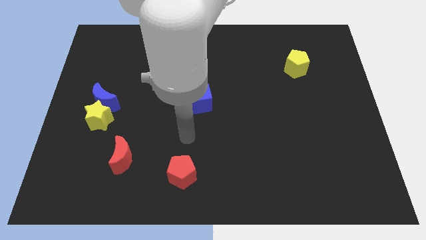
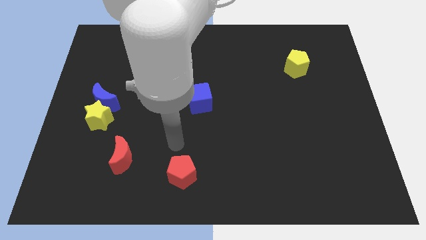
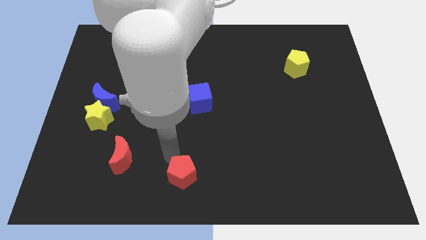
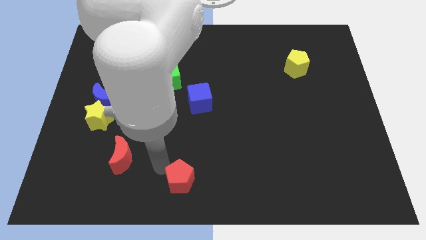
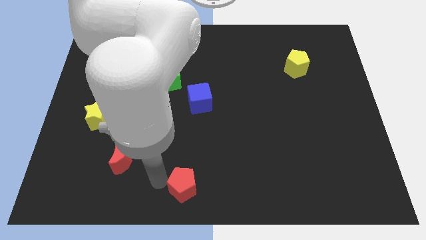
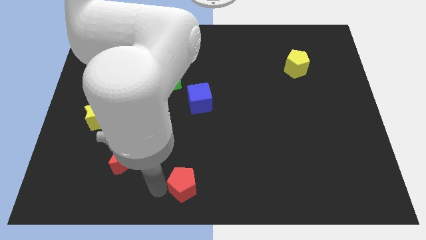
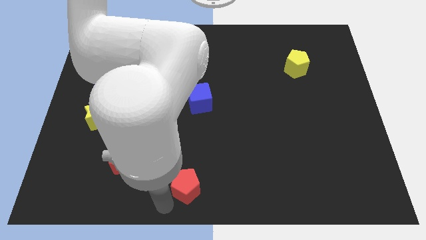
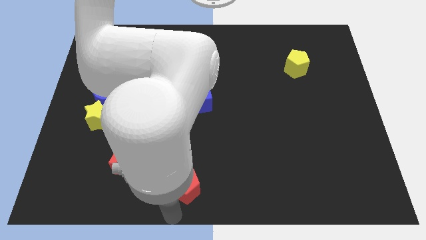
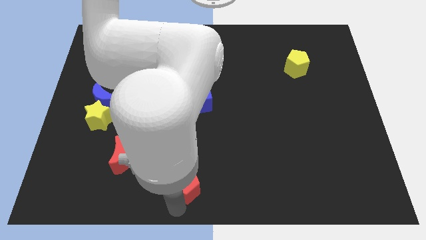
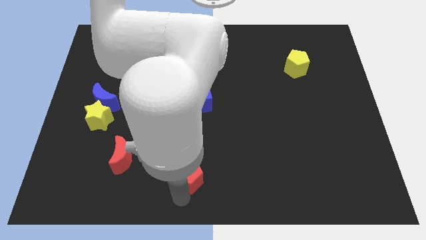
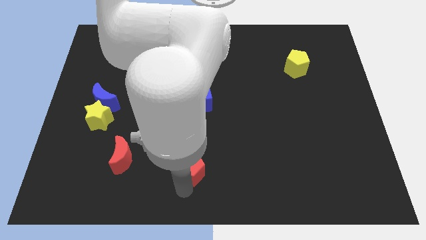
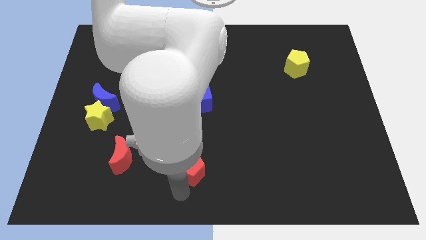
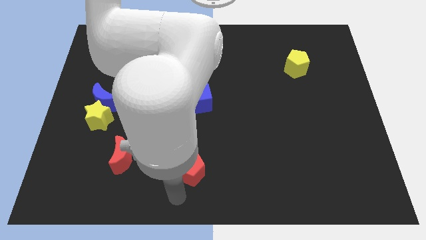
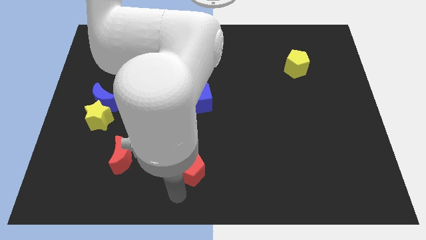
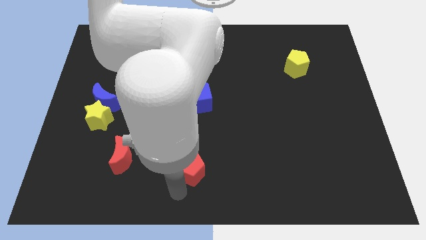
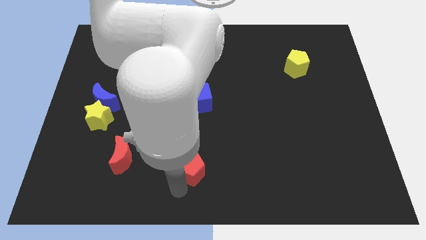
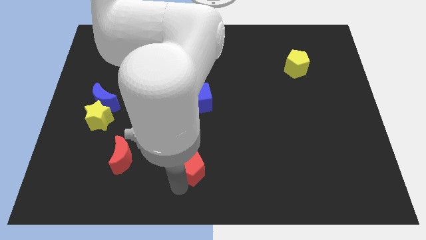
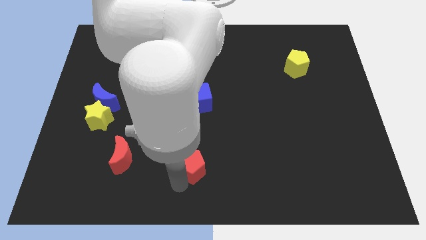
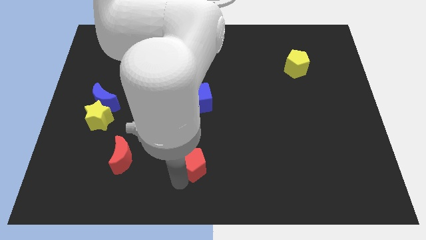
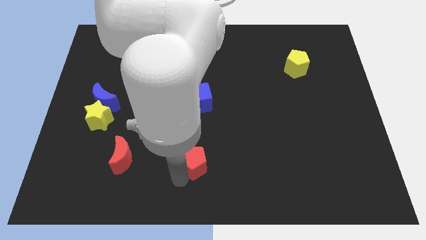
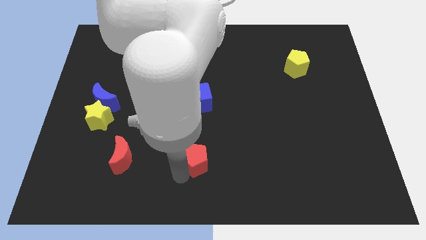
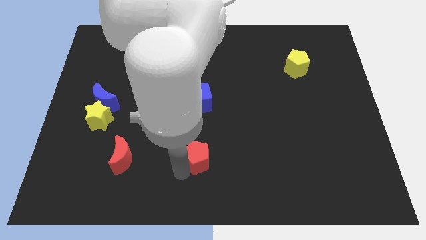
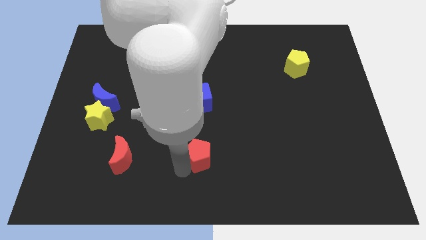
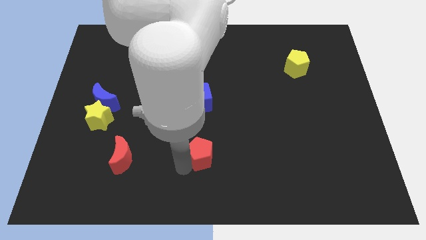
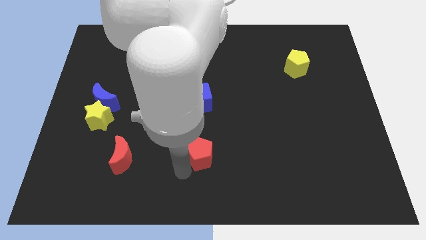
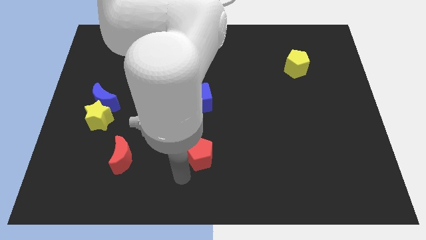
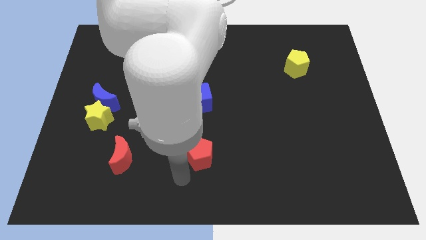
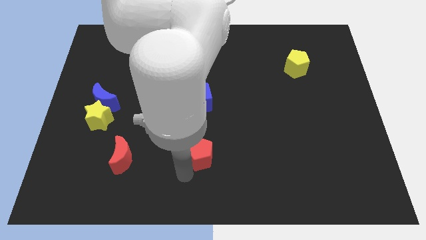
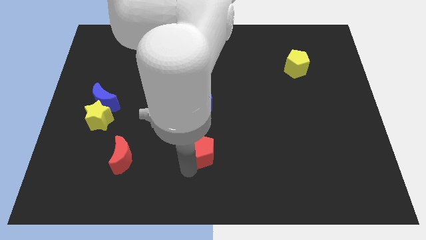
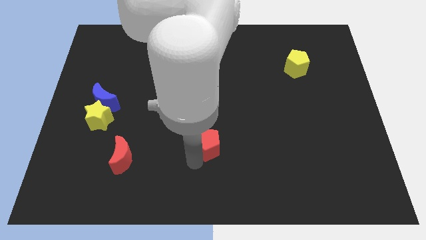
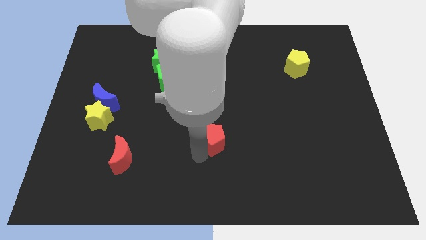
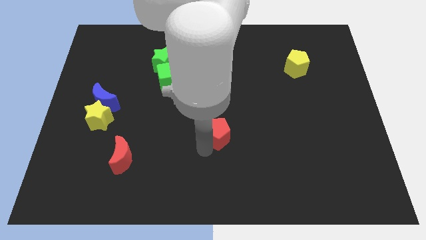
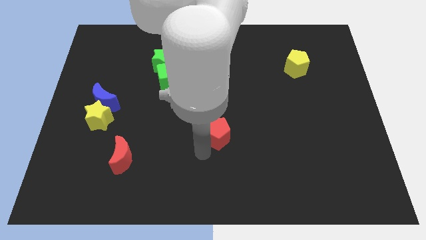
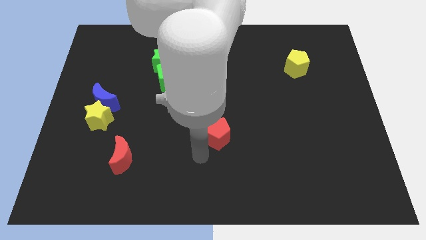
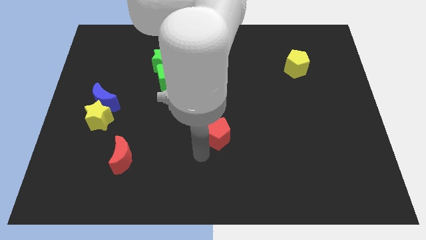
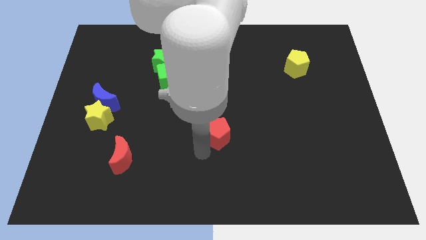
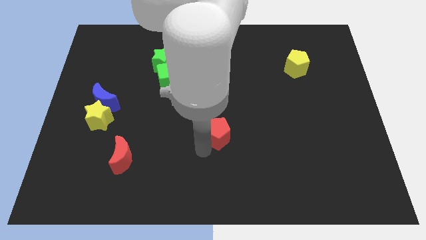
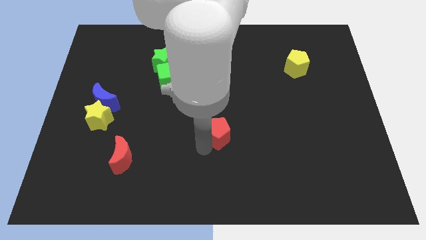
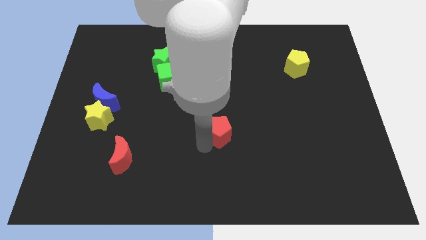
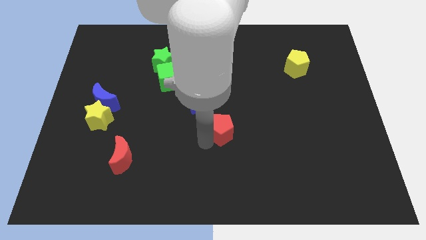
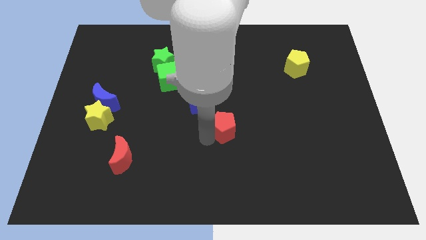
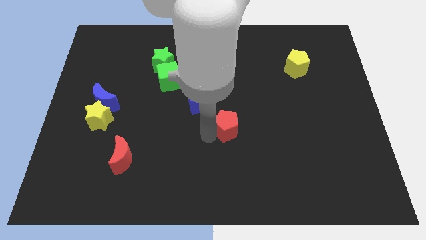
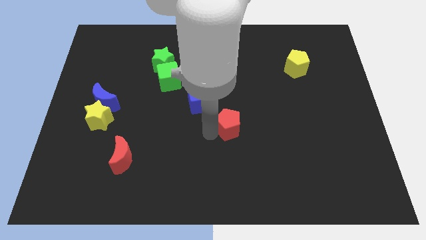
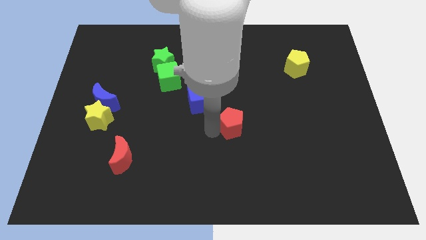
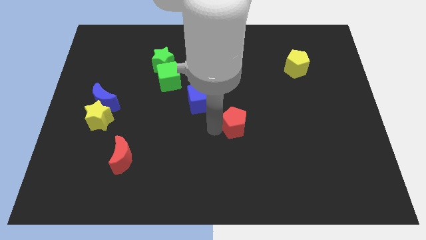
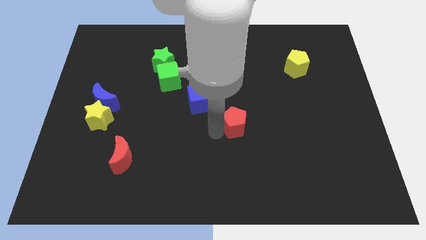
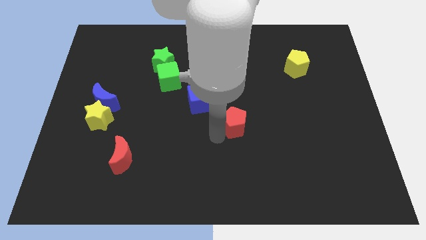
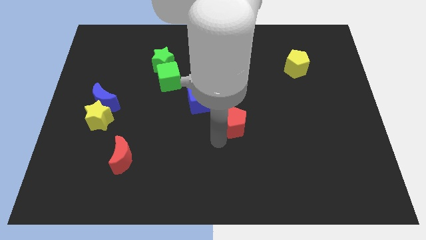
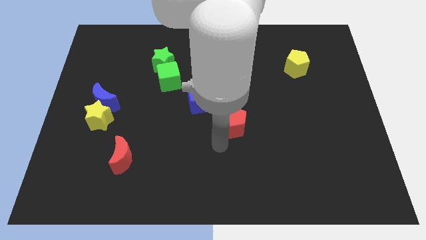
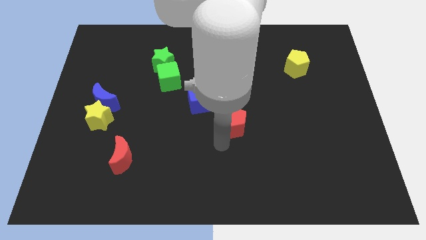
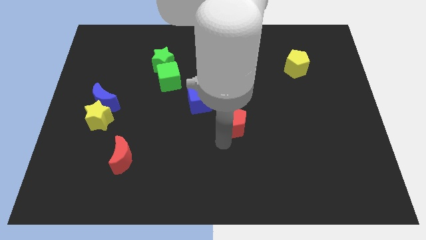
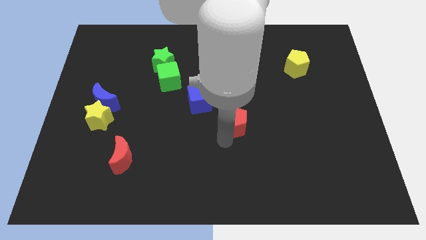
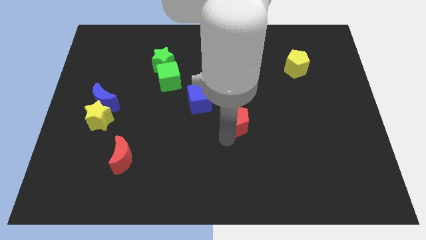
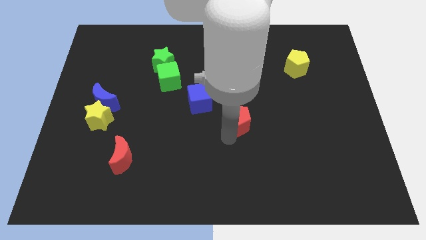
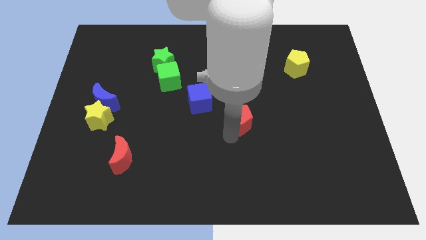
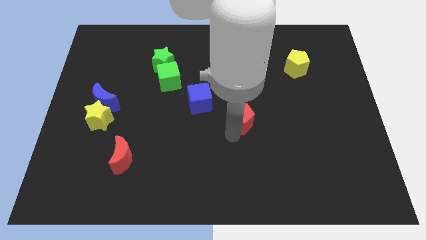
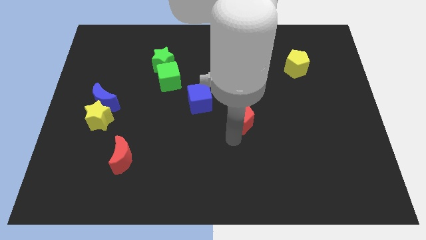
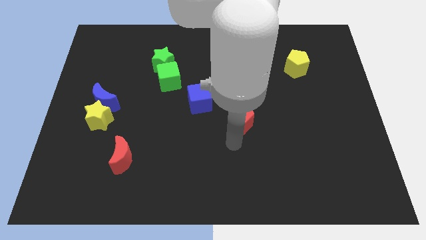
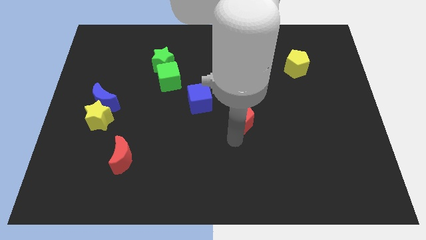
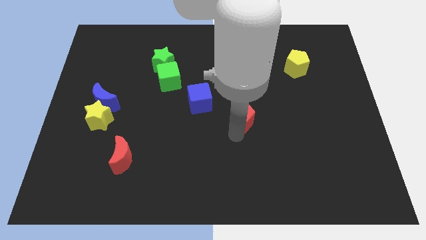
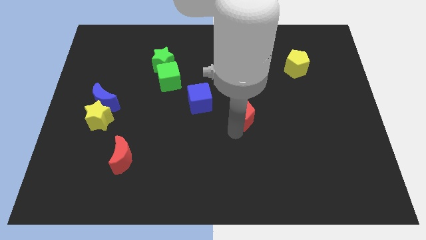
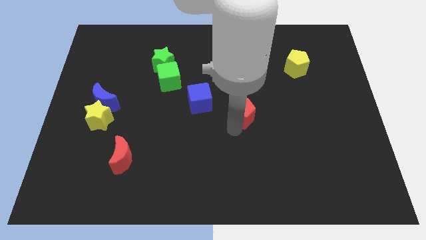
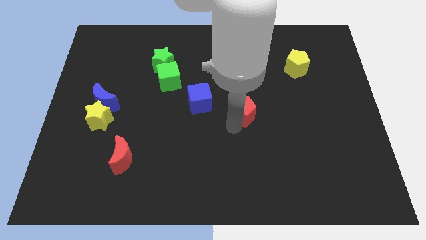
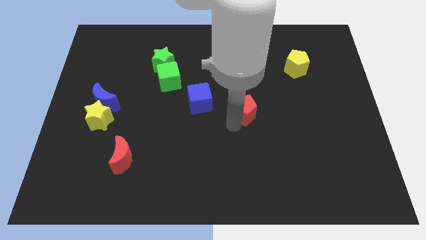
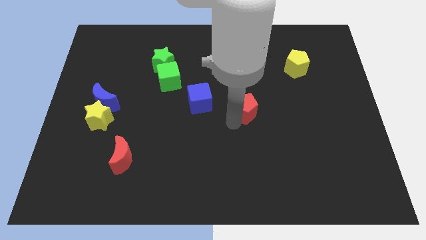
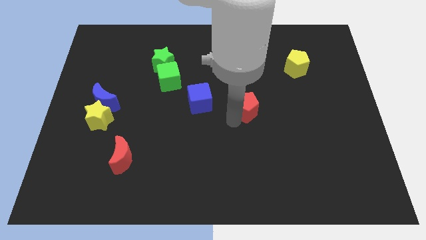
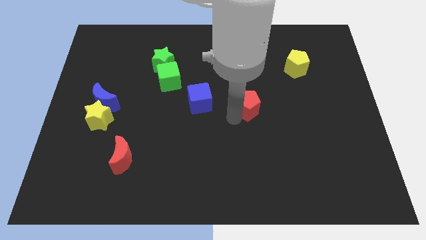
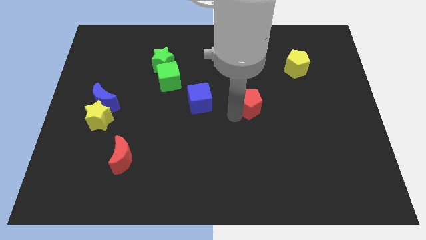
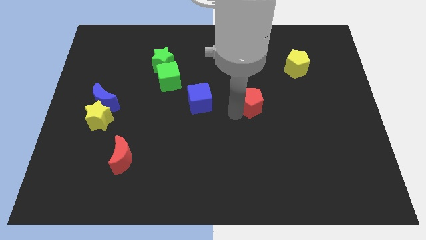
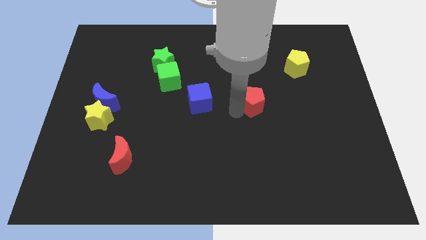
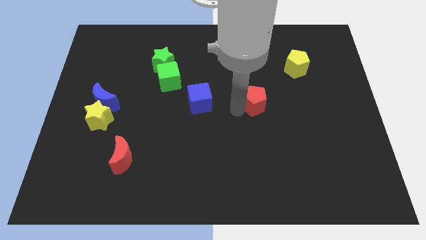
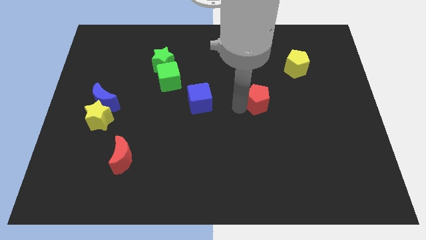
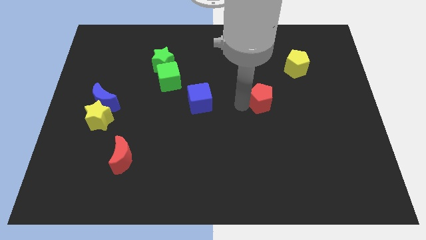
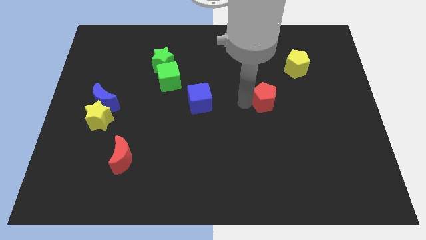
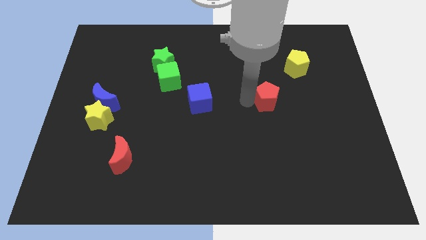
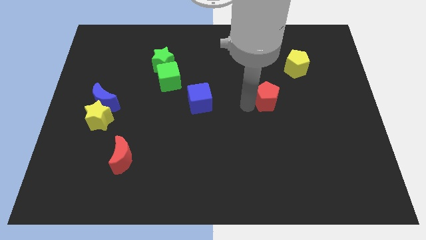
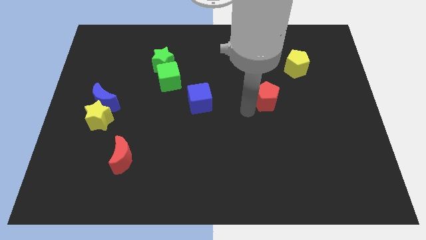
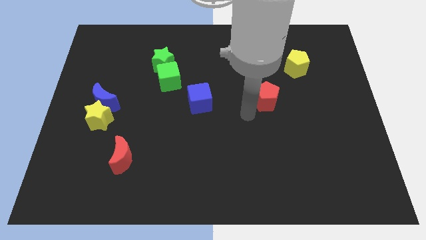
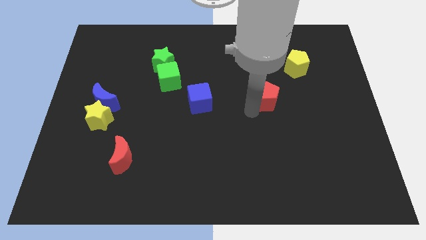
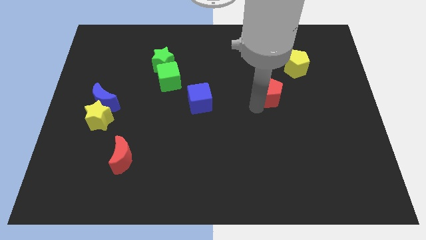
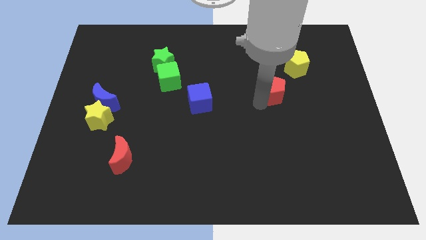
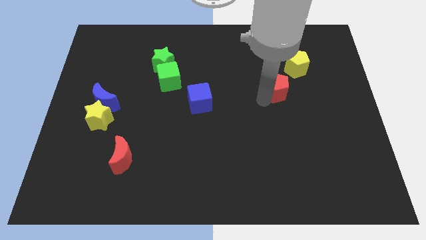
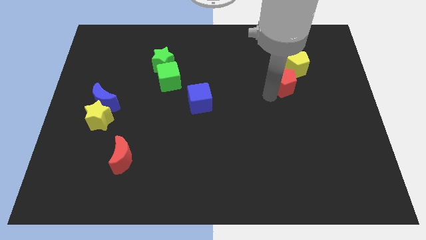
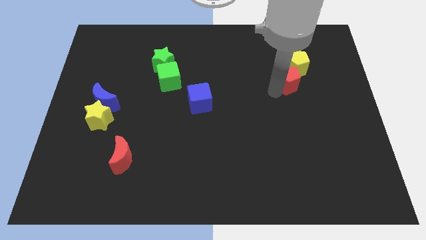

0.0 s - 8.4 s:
move the red pentagon towards the yellow pentagon
